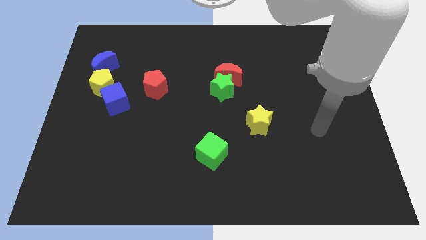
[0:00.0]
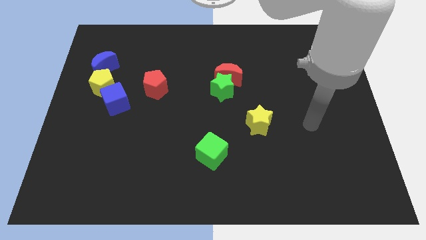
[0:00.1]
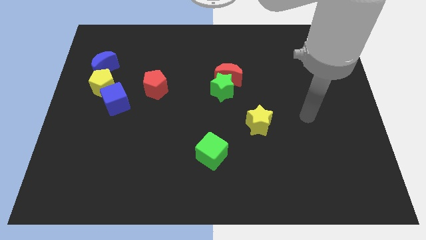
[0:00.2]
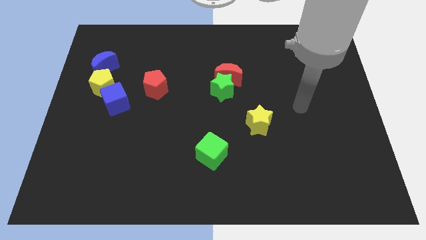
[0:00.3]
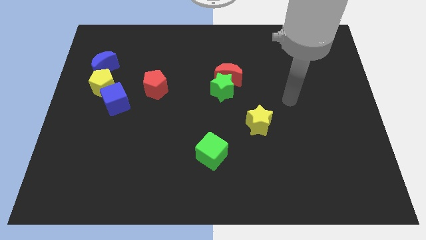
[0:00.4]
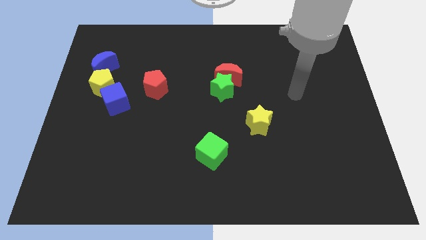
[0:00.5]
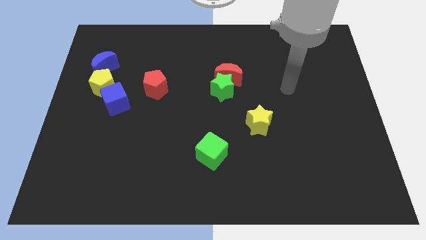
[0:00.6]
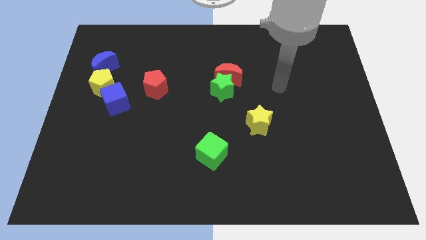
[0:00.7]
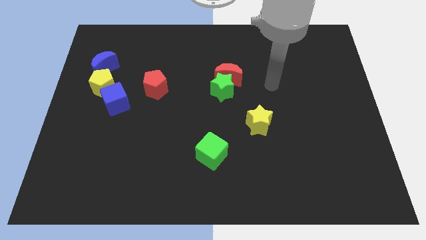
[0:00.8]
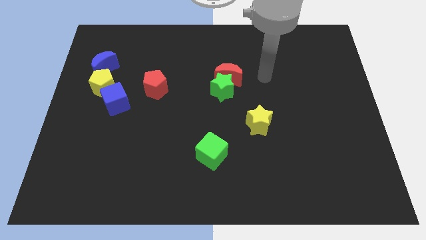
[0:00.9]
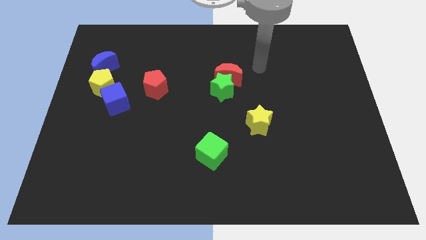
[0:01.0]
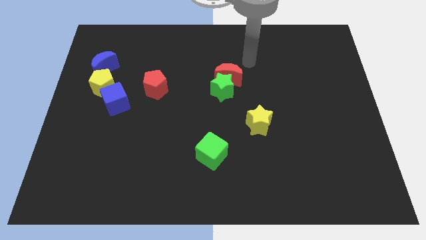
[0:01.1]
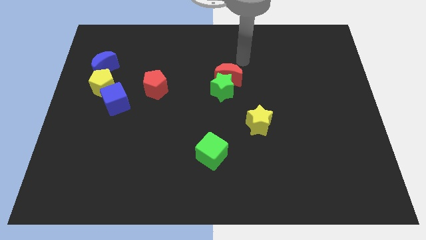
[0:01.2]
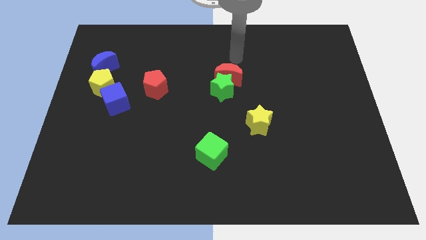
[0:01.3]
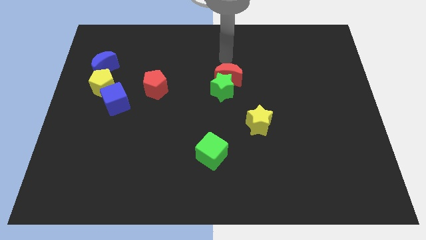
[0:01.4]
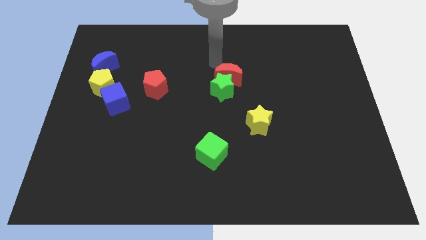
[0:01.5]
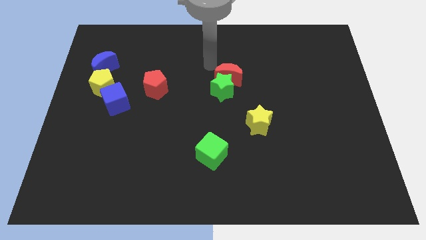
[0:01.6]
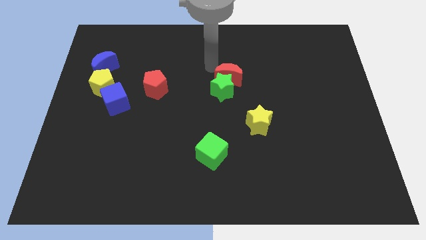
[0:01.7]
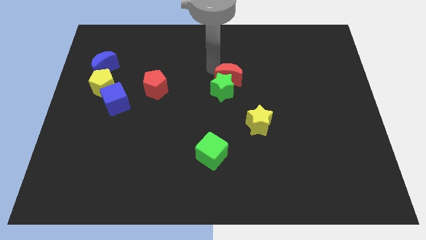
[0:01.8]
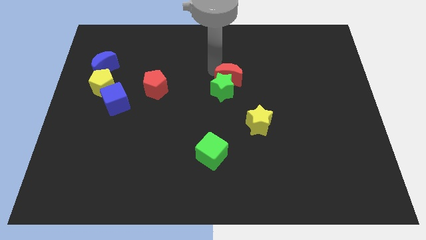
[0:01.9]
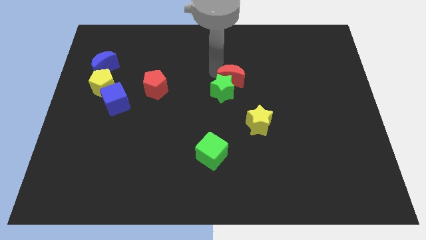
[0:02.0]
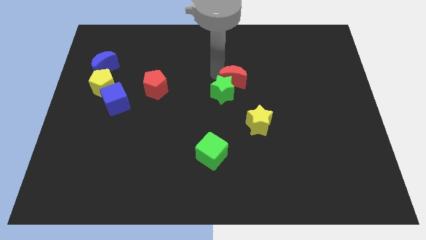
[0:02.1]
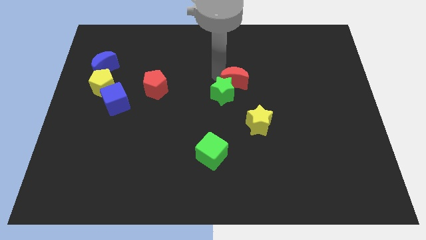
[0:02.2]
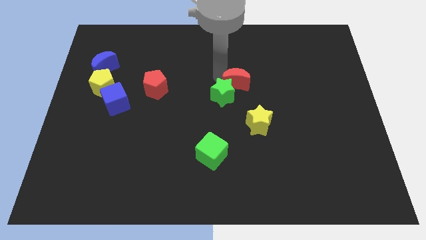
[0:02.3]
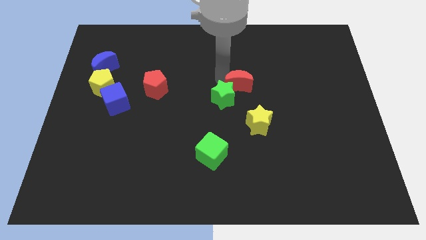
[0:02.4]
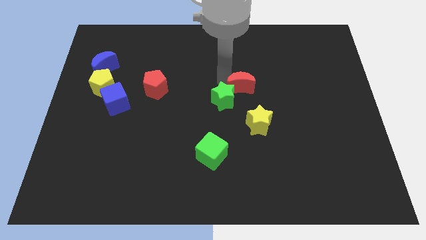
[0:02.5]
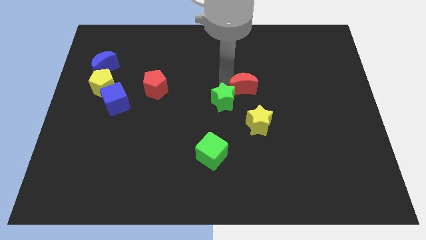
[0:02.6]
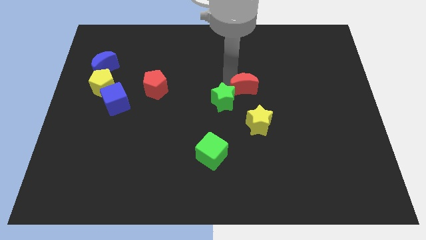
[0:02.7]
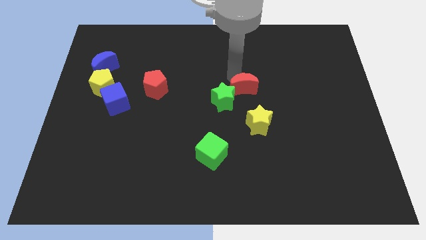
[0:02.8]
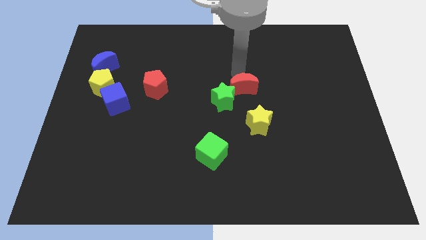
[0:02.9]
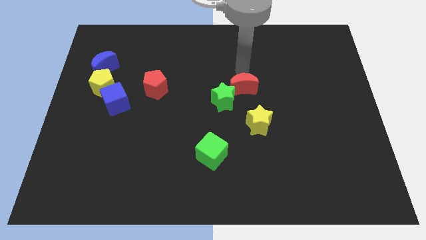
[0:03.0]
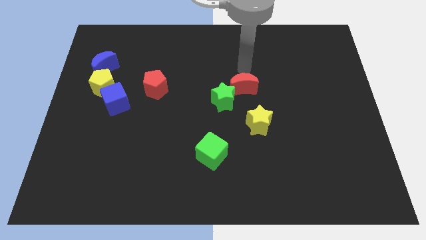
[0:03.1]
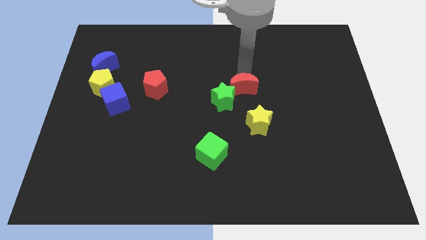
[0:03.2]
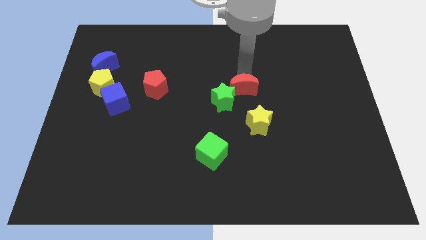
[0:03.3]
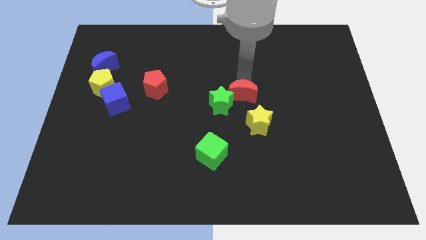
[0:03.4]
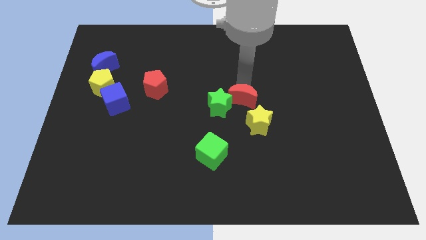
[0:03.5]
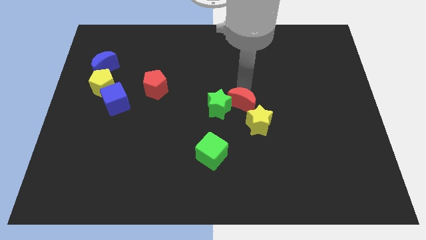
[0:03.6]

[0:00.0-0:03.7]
push the red moon downwards a little bit

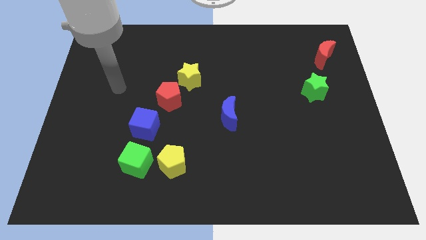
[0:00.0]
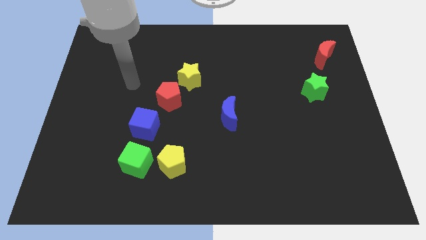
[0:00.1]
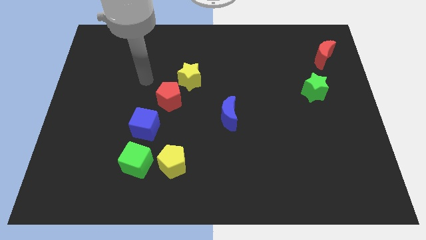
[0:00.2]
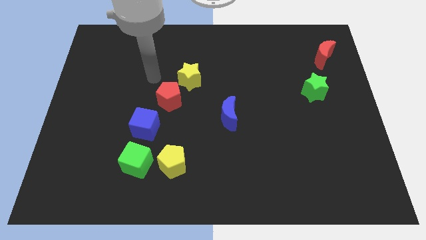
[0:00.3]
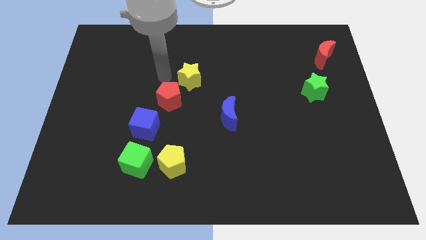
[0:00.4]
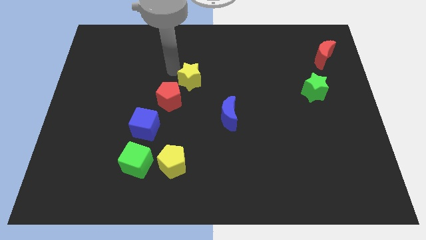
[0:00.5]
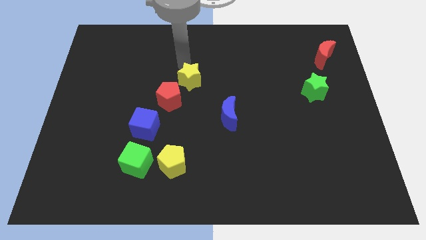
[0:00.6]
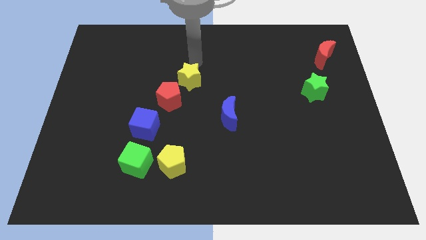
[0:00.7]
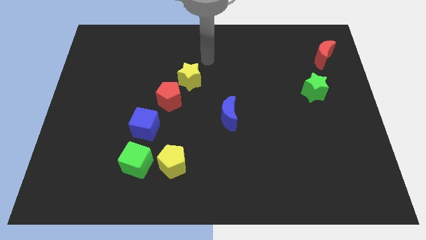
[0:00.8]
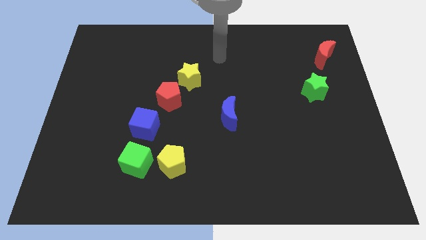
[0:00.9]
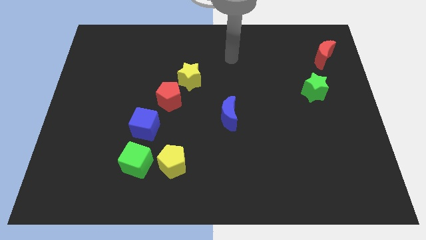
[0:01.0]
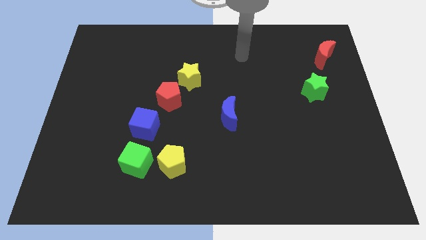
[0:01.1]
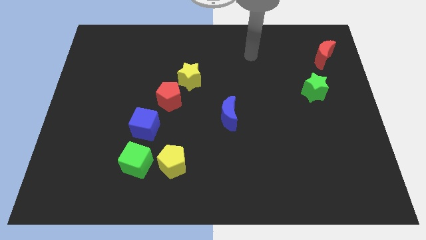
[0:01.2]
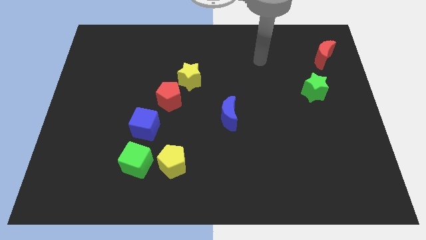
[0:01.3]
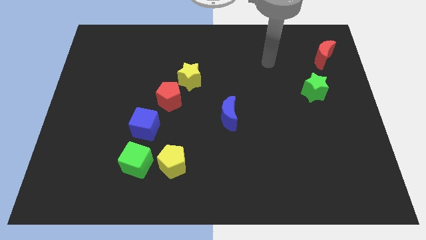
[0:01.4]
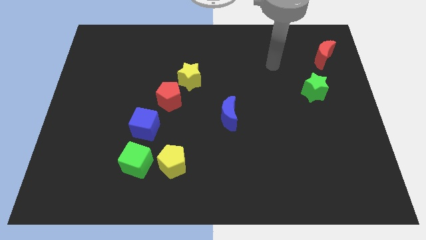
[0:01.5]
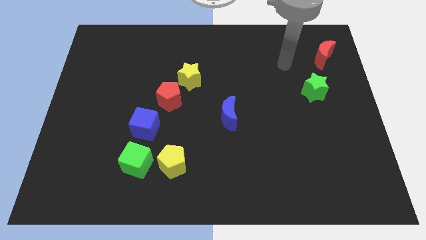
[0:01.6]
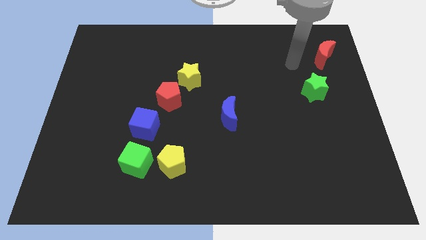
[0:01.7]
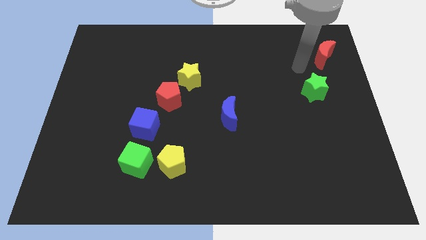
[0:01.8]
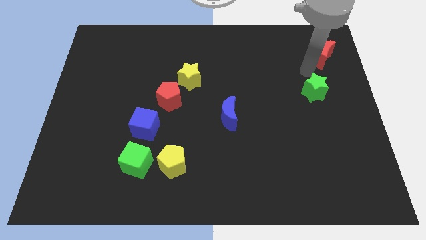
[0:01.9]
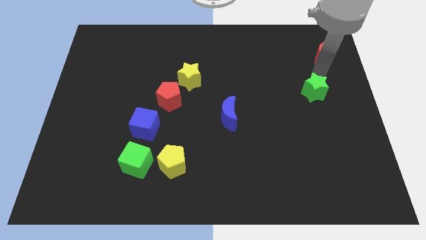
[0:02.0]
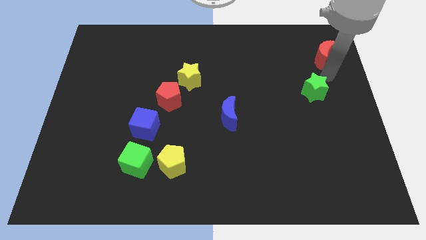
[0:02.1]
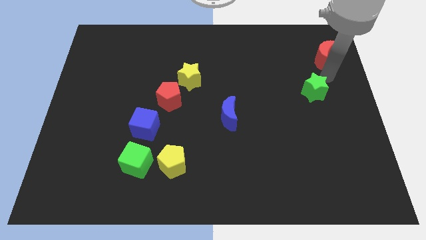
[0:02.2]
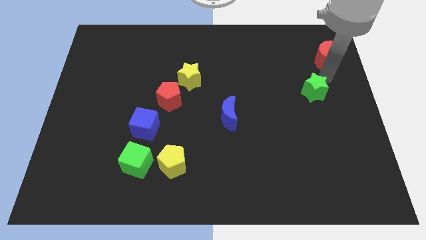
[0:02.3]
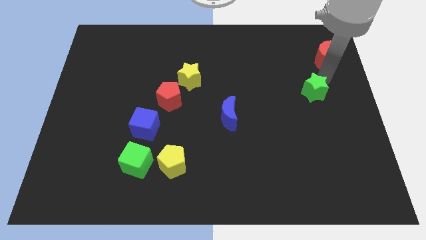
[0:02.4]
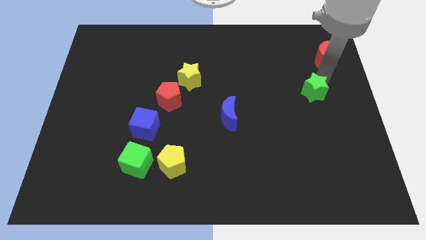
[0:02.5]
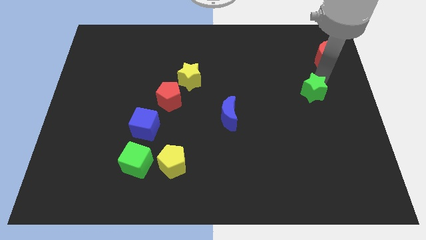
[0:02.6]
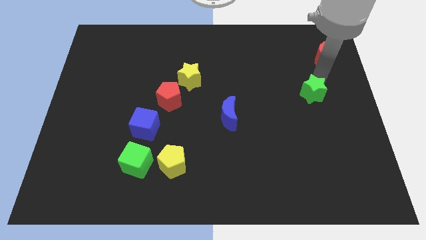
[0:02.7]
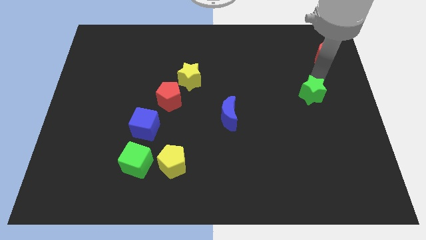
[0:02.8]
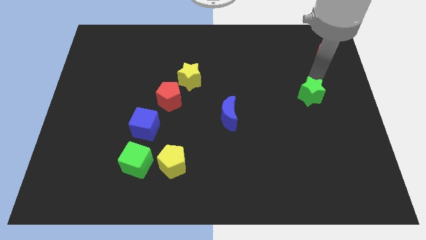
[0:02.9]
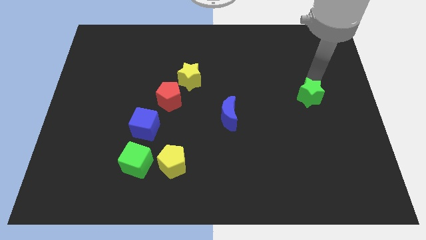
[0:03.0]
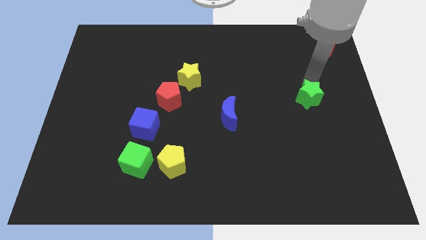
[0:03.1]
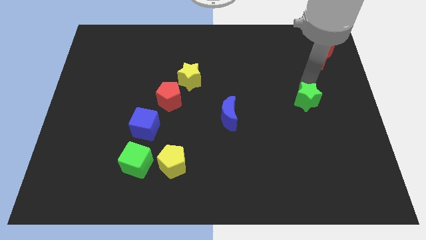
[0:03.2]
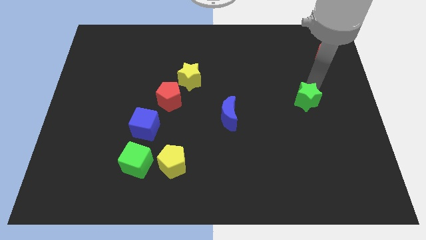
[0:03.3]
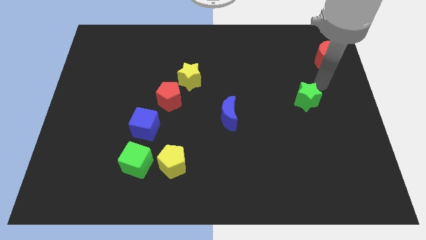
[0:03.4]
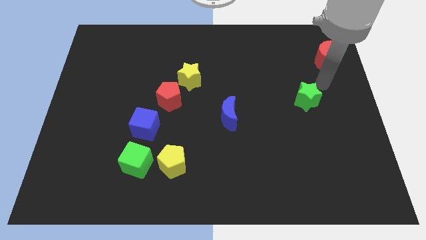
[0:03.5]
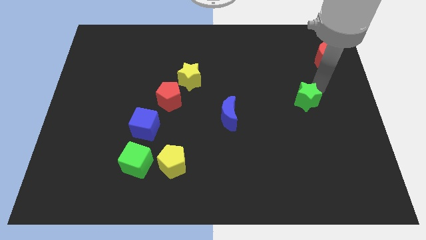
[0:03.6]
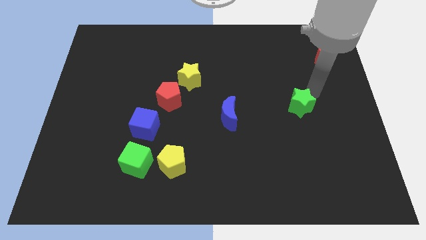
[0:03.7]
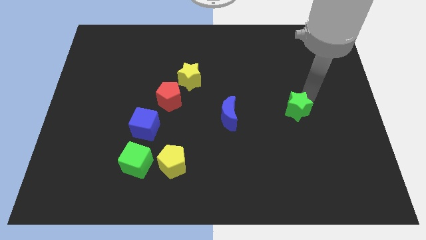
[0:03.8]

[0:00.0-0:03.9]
move the green star somewhat down and left
